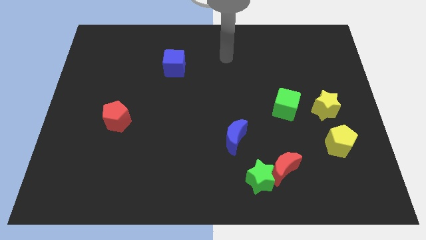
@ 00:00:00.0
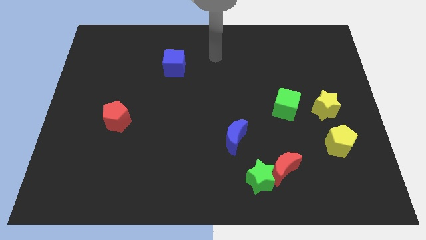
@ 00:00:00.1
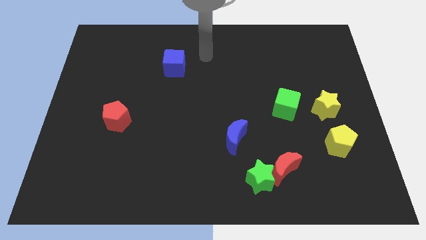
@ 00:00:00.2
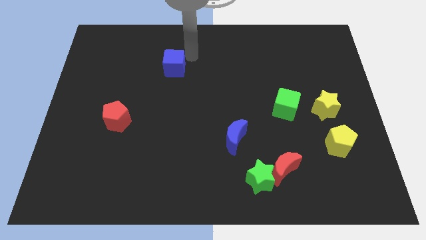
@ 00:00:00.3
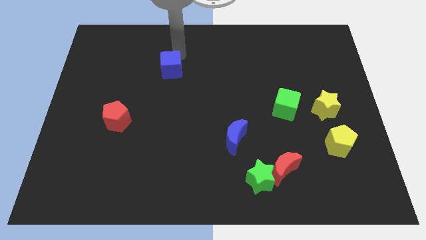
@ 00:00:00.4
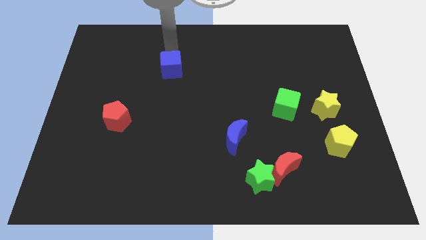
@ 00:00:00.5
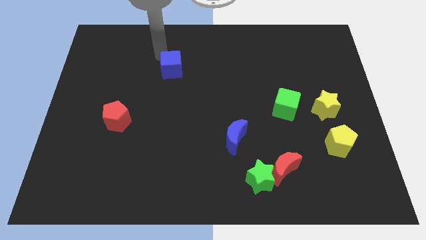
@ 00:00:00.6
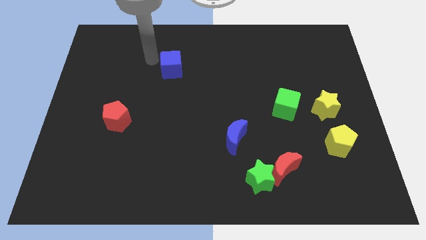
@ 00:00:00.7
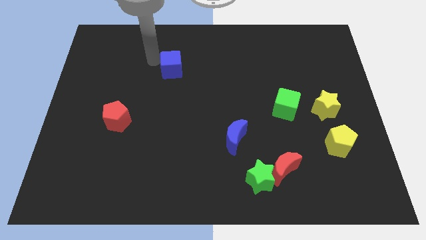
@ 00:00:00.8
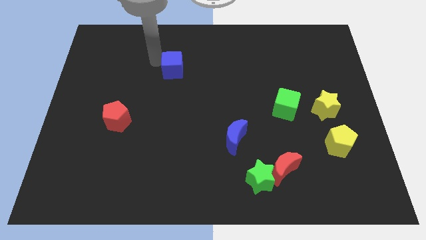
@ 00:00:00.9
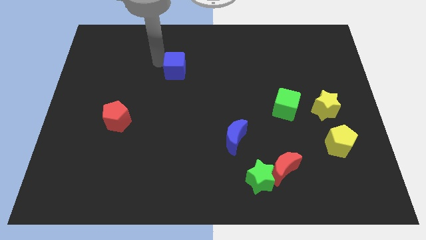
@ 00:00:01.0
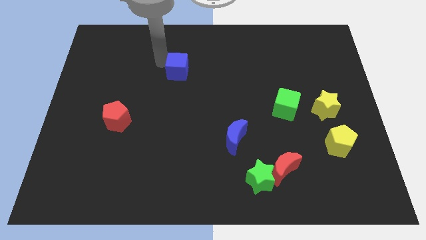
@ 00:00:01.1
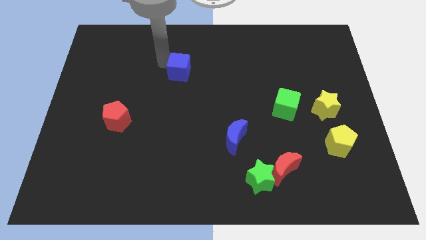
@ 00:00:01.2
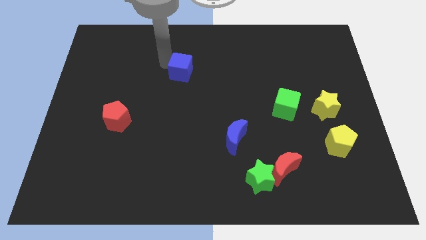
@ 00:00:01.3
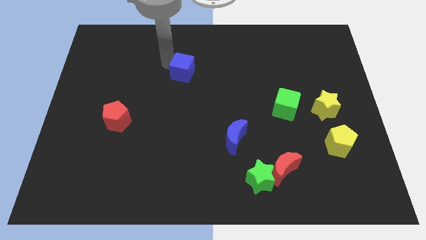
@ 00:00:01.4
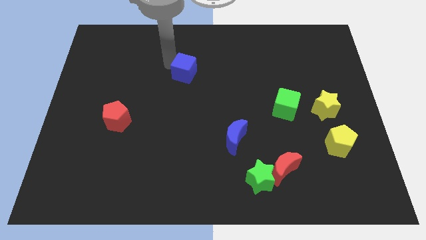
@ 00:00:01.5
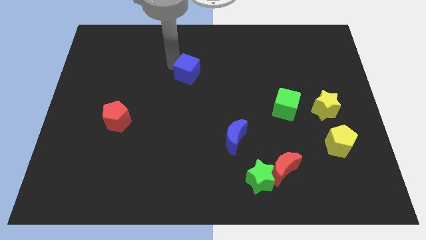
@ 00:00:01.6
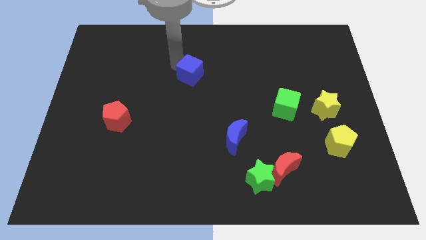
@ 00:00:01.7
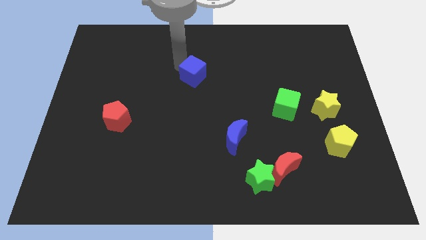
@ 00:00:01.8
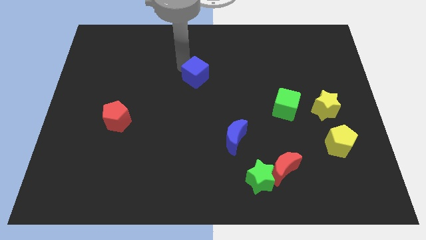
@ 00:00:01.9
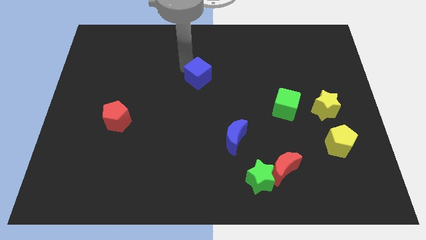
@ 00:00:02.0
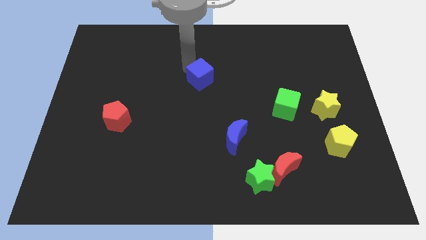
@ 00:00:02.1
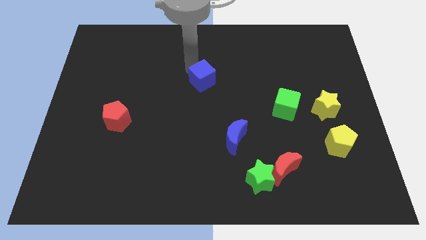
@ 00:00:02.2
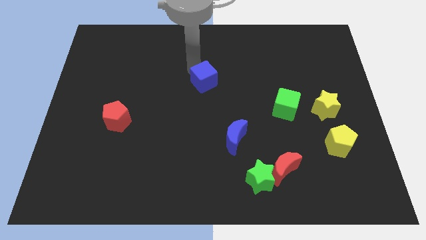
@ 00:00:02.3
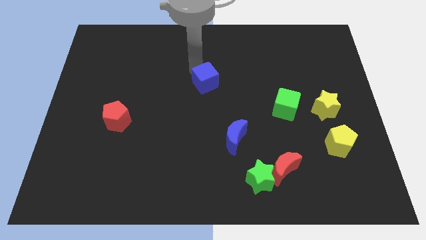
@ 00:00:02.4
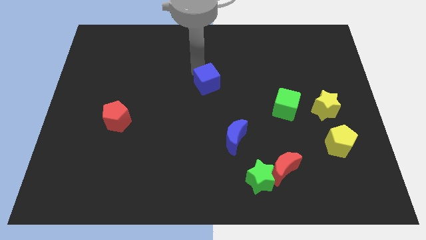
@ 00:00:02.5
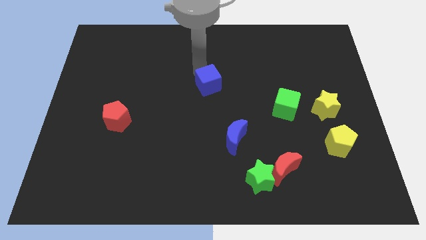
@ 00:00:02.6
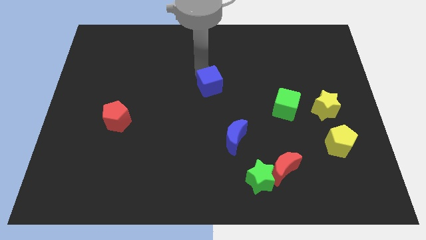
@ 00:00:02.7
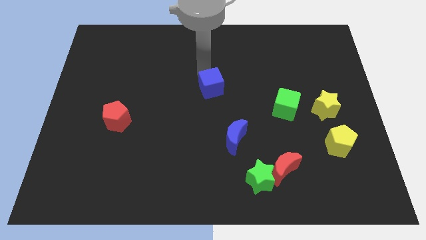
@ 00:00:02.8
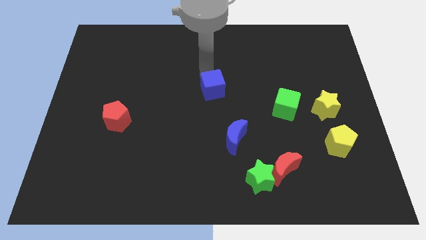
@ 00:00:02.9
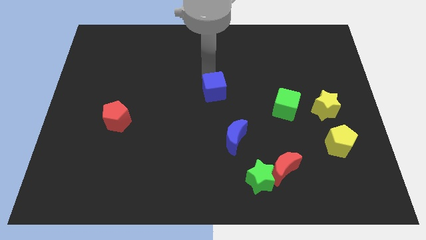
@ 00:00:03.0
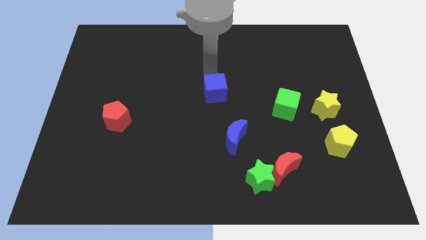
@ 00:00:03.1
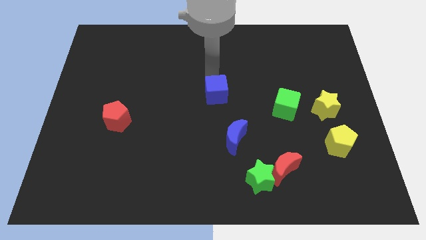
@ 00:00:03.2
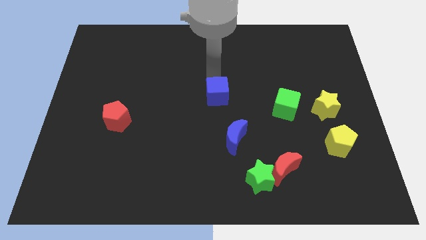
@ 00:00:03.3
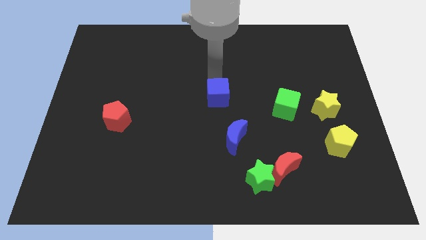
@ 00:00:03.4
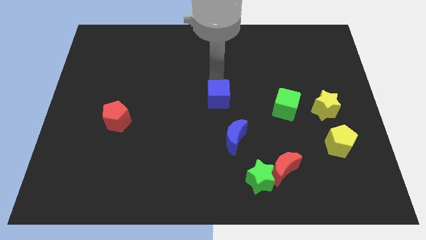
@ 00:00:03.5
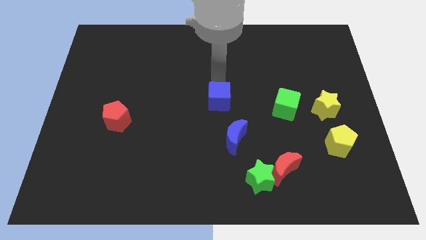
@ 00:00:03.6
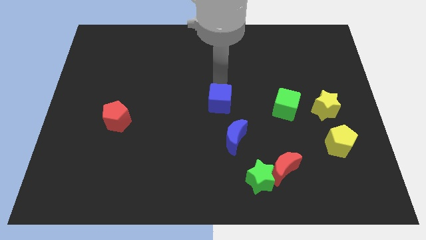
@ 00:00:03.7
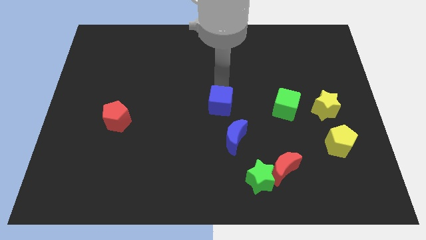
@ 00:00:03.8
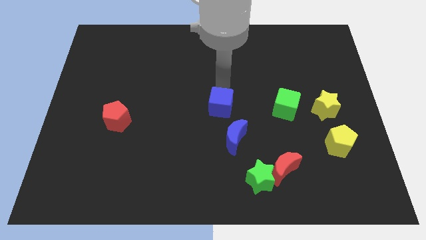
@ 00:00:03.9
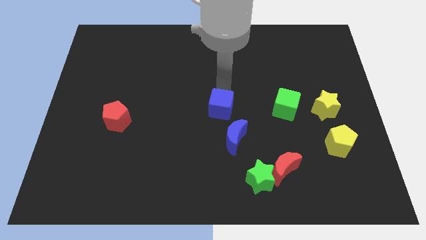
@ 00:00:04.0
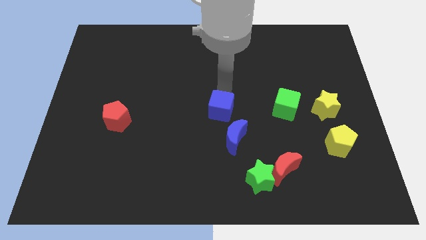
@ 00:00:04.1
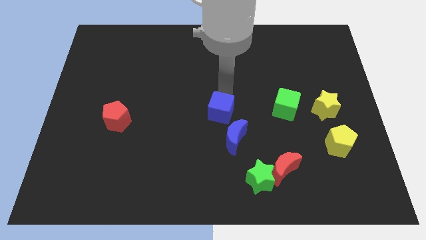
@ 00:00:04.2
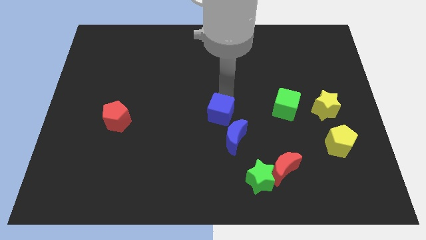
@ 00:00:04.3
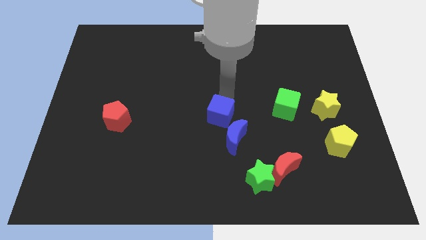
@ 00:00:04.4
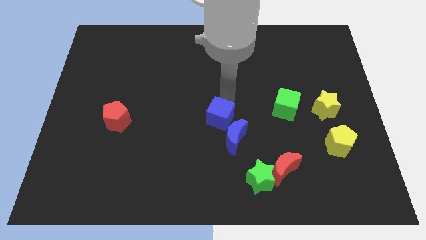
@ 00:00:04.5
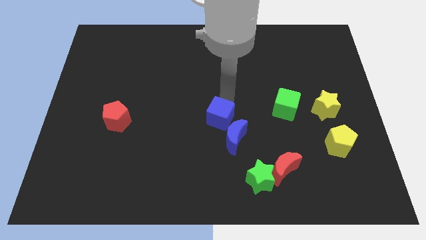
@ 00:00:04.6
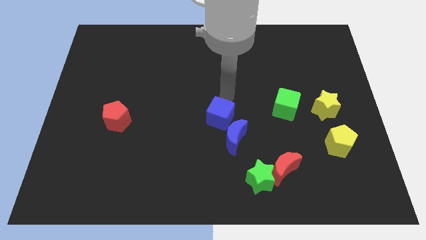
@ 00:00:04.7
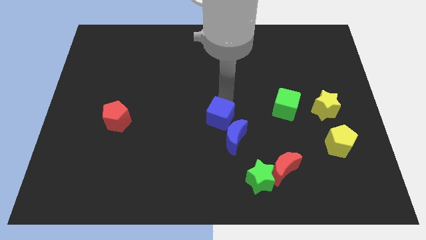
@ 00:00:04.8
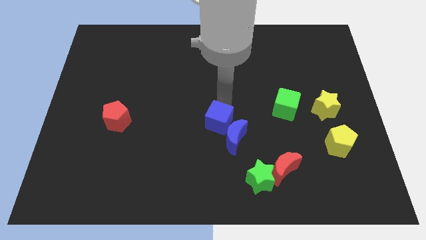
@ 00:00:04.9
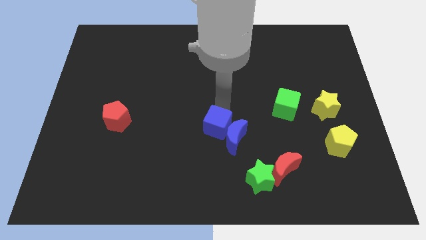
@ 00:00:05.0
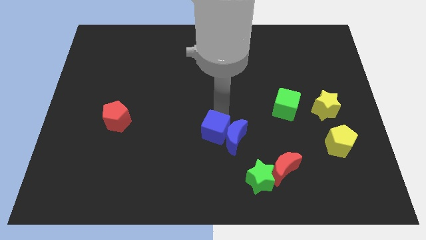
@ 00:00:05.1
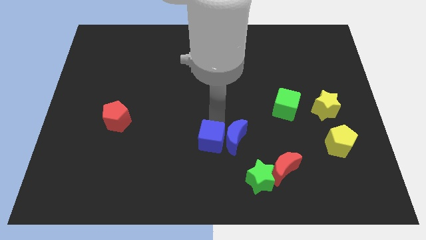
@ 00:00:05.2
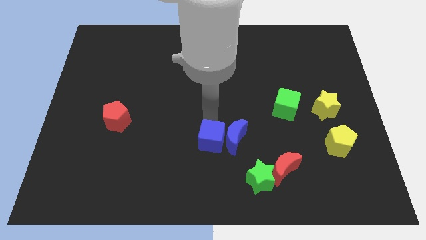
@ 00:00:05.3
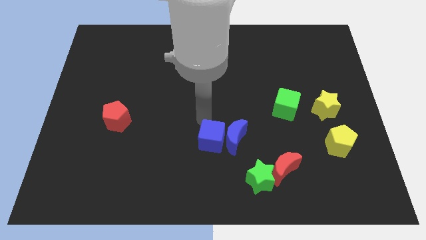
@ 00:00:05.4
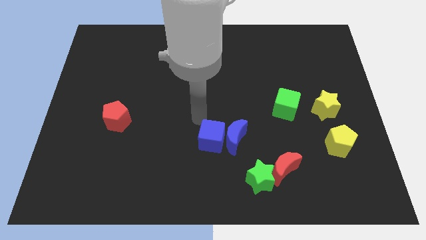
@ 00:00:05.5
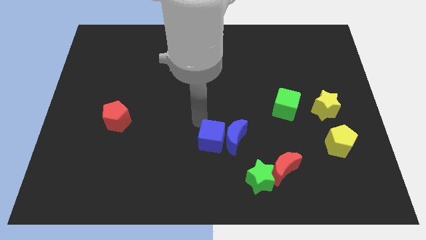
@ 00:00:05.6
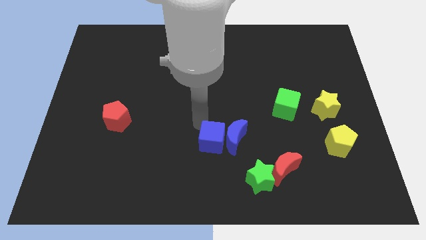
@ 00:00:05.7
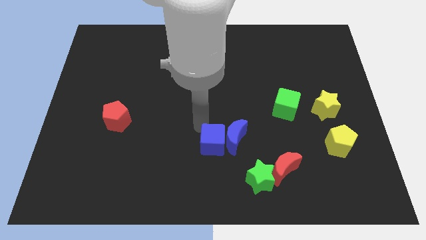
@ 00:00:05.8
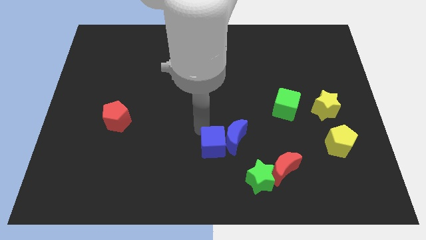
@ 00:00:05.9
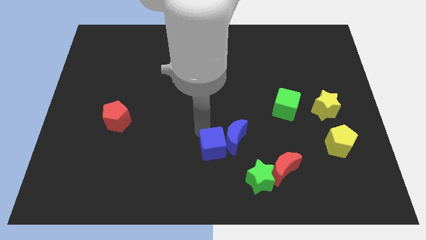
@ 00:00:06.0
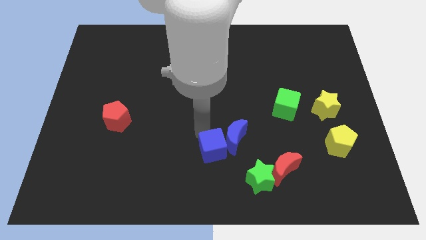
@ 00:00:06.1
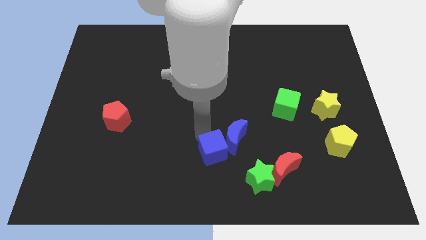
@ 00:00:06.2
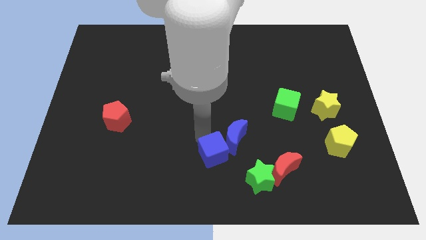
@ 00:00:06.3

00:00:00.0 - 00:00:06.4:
slide the blue cube below the blue moon

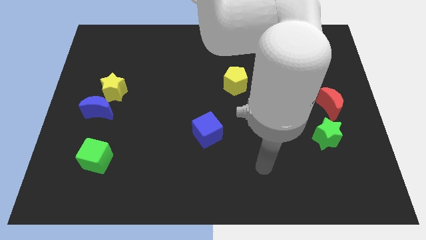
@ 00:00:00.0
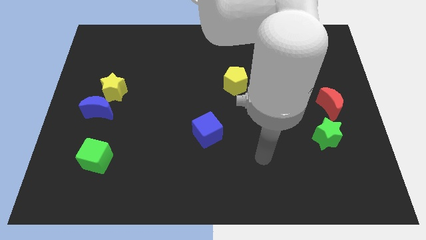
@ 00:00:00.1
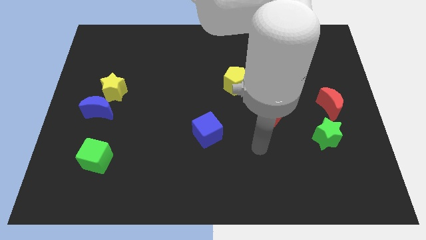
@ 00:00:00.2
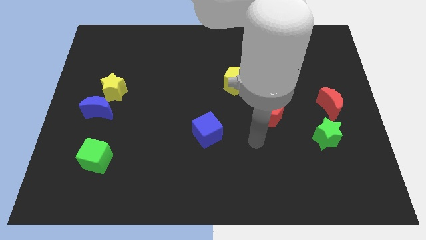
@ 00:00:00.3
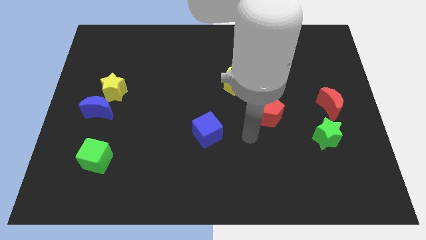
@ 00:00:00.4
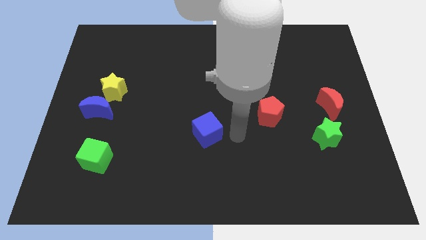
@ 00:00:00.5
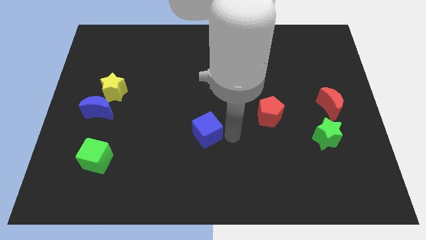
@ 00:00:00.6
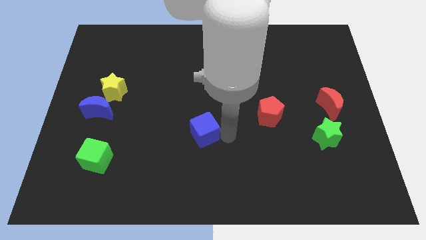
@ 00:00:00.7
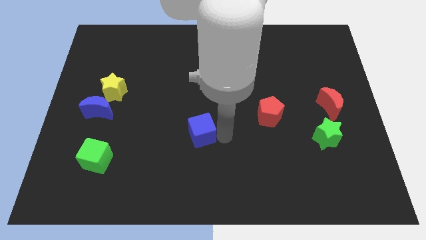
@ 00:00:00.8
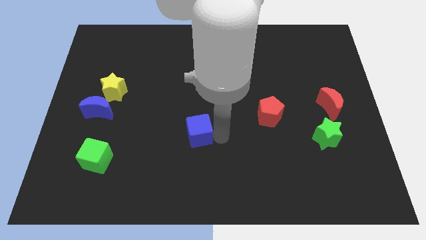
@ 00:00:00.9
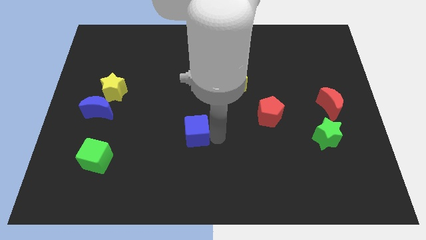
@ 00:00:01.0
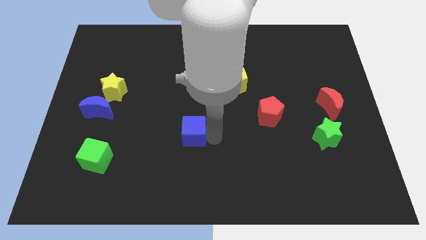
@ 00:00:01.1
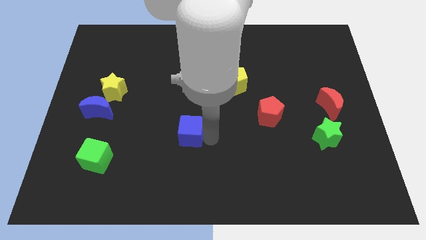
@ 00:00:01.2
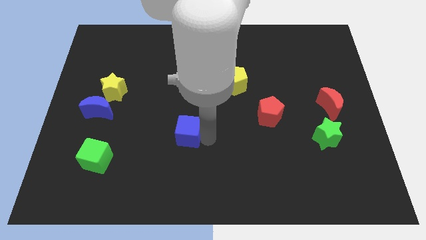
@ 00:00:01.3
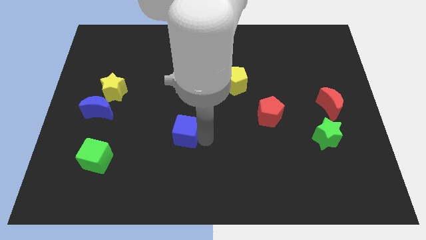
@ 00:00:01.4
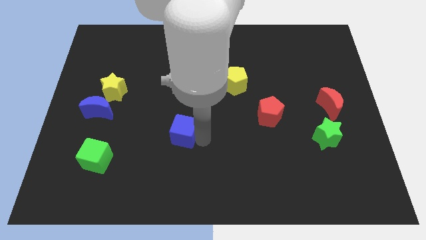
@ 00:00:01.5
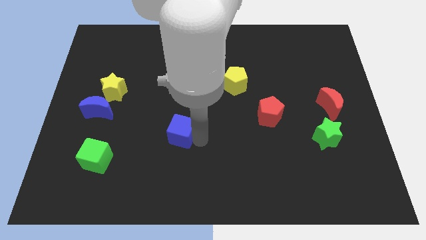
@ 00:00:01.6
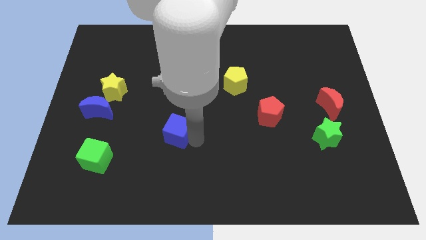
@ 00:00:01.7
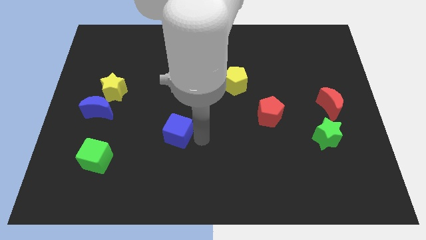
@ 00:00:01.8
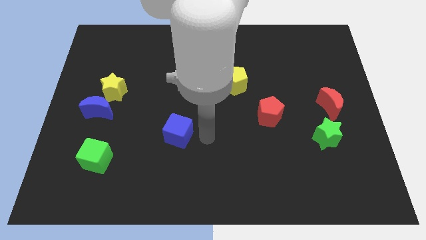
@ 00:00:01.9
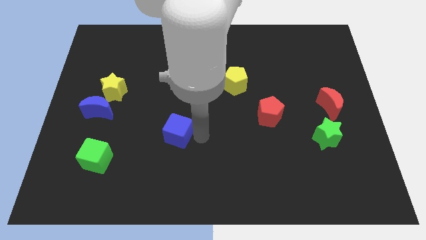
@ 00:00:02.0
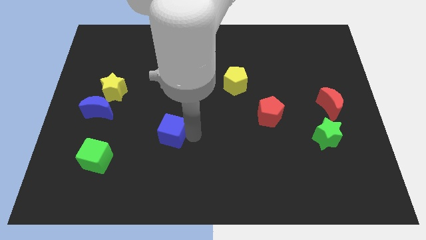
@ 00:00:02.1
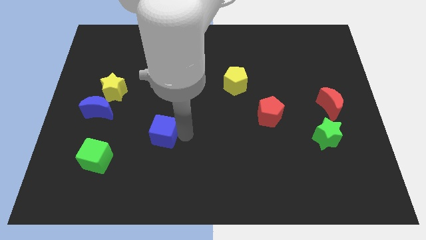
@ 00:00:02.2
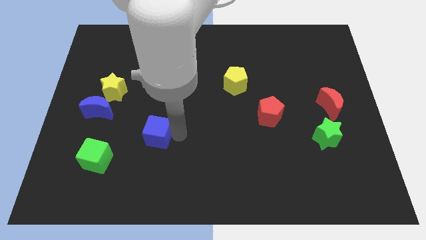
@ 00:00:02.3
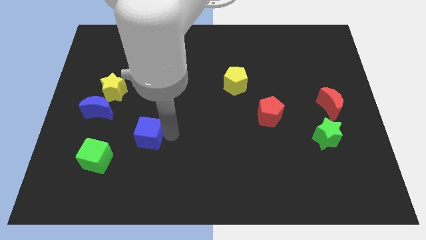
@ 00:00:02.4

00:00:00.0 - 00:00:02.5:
push the blue cube diagonally up and to the right of the green cube
